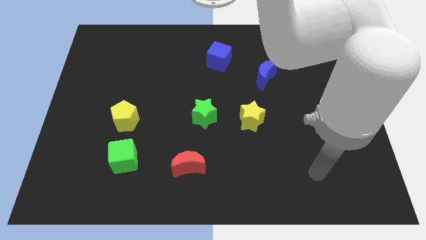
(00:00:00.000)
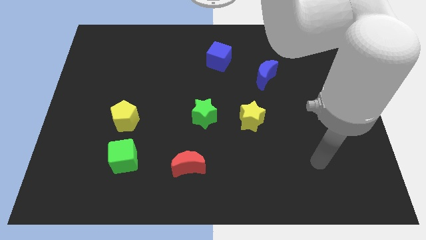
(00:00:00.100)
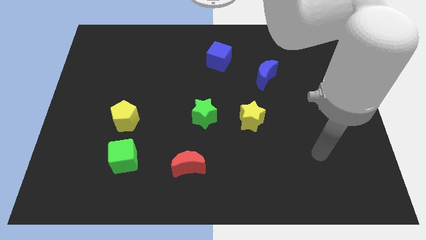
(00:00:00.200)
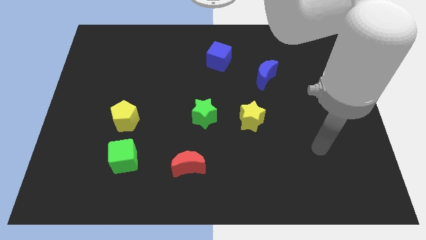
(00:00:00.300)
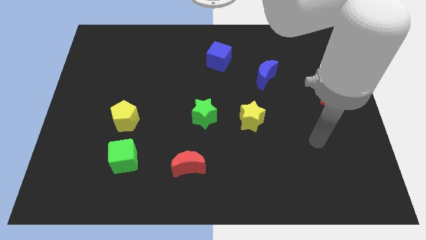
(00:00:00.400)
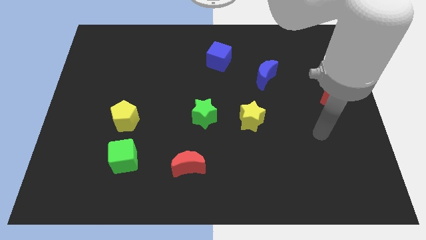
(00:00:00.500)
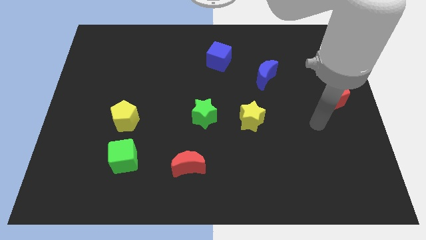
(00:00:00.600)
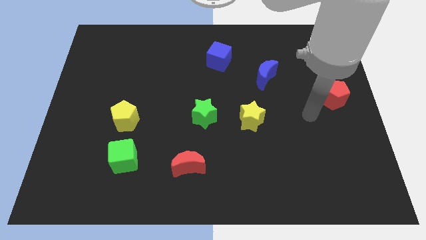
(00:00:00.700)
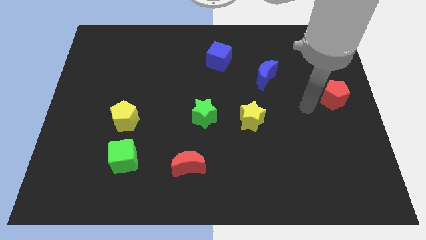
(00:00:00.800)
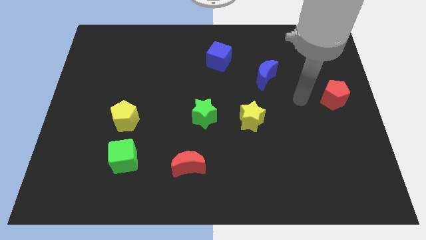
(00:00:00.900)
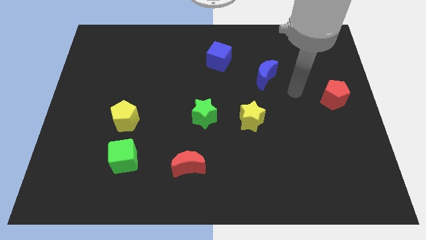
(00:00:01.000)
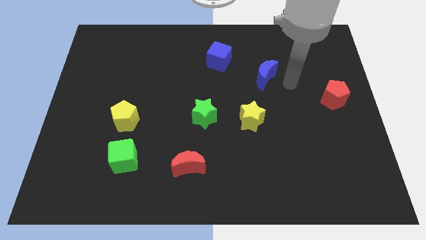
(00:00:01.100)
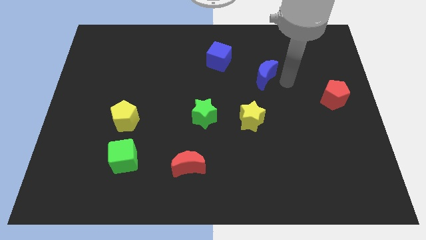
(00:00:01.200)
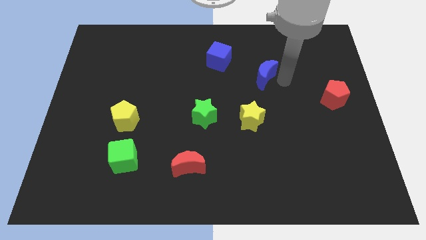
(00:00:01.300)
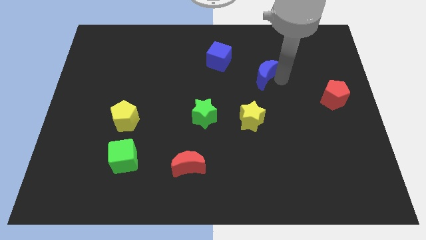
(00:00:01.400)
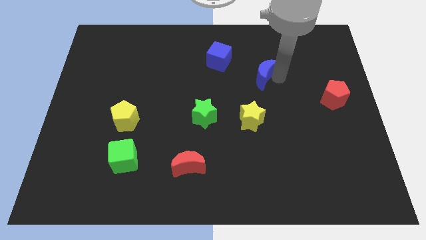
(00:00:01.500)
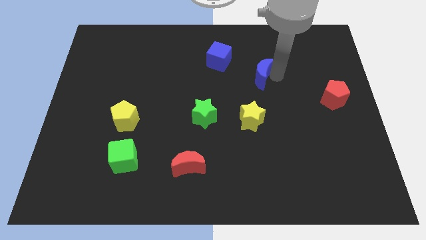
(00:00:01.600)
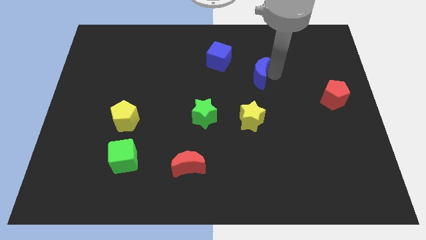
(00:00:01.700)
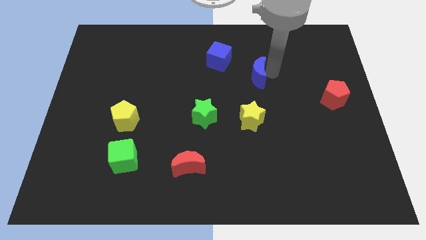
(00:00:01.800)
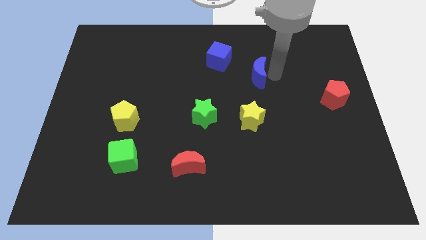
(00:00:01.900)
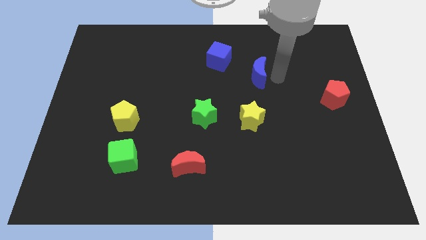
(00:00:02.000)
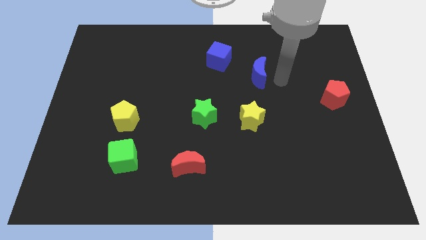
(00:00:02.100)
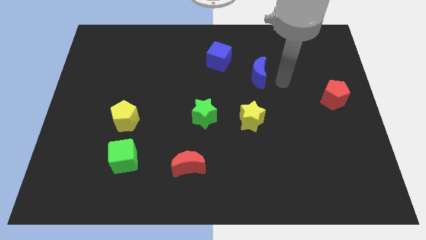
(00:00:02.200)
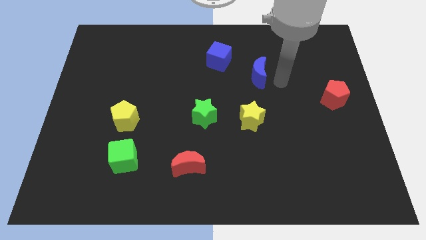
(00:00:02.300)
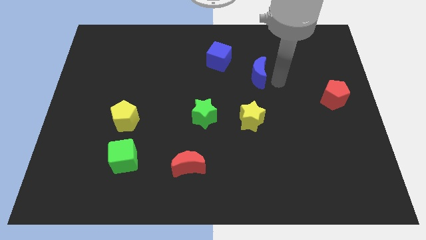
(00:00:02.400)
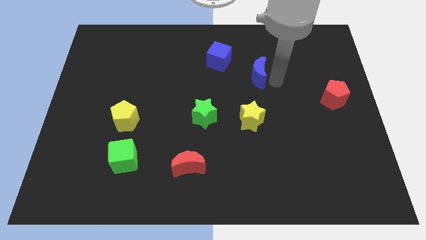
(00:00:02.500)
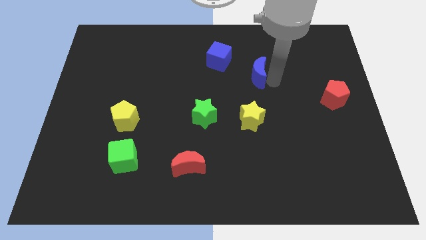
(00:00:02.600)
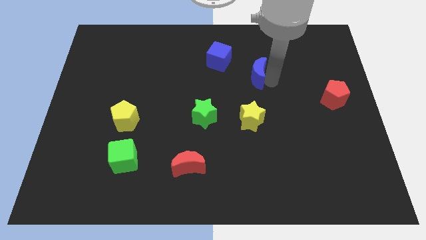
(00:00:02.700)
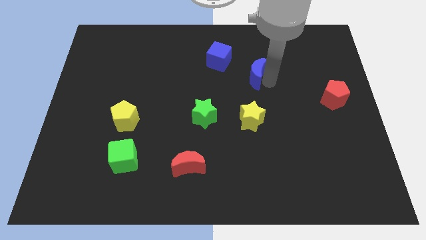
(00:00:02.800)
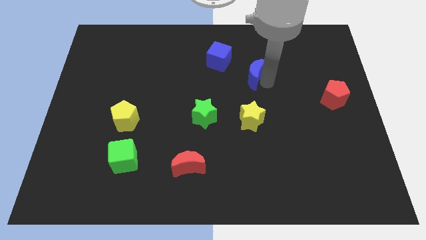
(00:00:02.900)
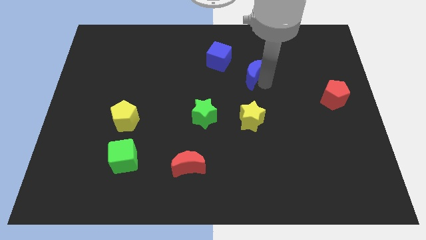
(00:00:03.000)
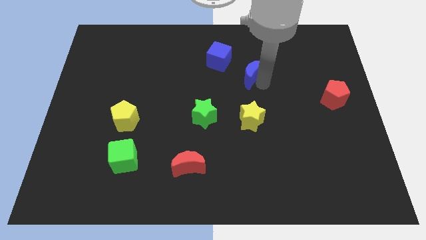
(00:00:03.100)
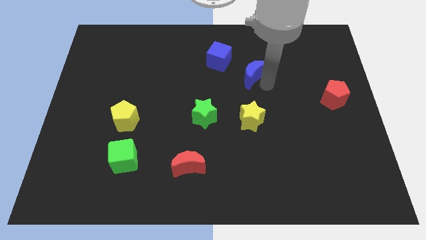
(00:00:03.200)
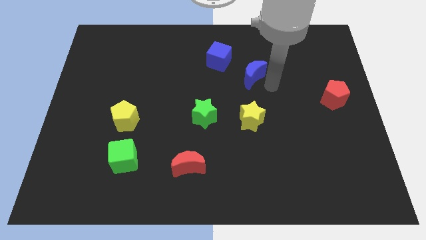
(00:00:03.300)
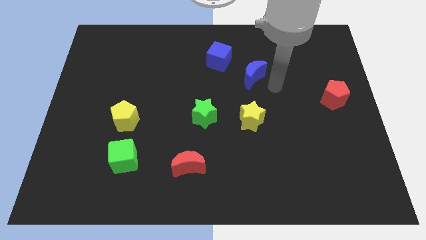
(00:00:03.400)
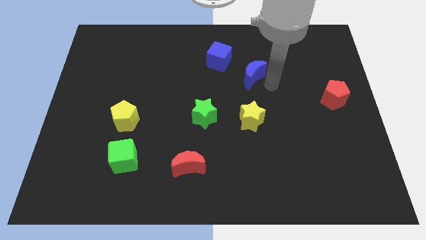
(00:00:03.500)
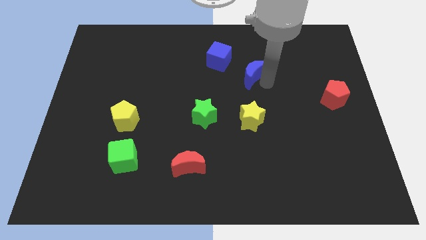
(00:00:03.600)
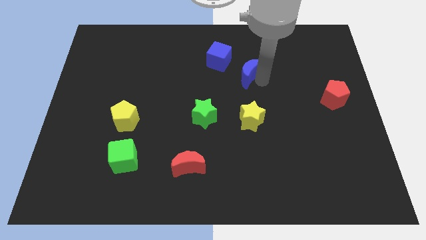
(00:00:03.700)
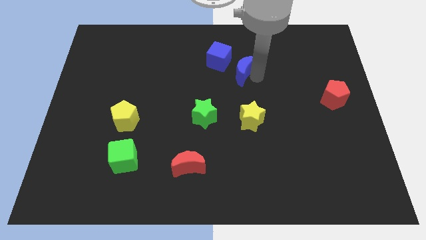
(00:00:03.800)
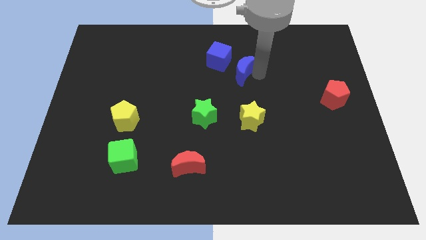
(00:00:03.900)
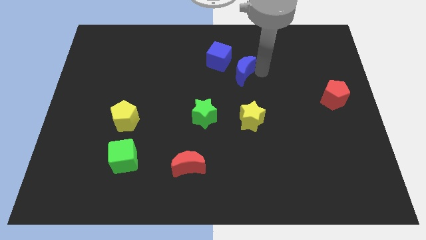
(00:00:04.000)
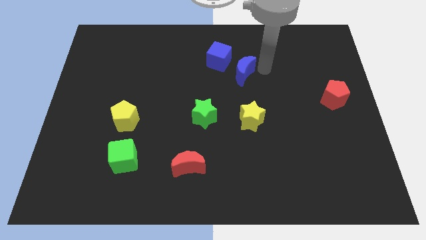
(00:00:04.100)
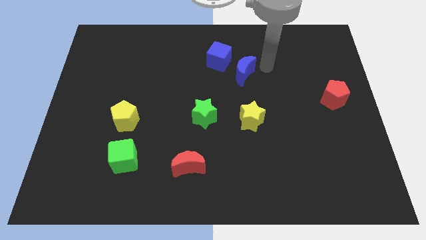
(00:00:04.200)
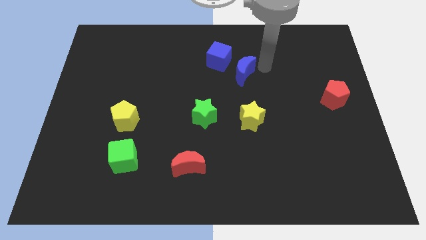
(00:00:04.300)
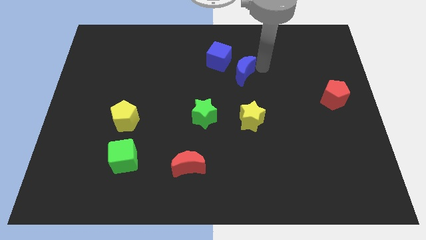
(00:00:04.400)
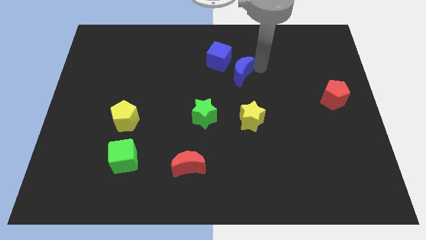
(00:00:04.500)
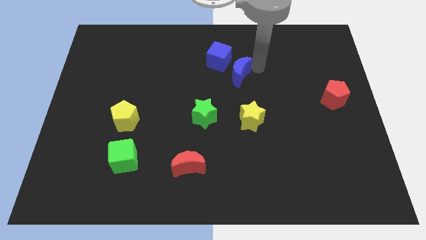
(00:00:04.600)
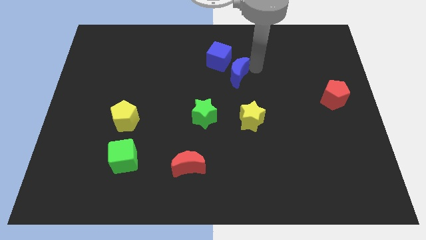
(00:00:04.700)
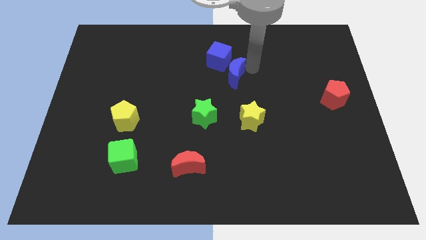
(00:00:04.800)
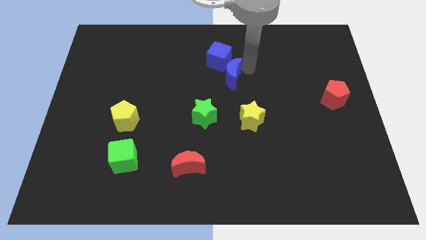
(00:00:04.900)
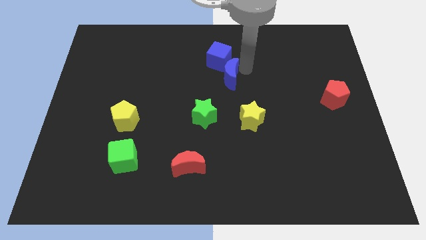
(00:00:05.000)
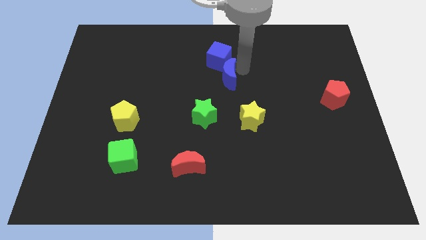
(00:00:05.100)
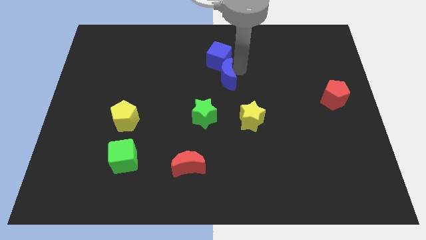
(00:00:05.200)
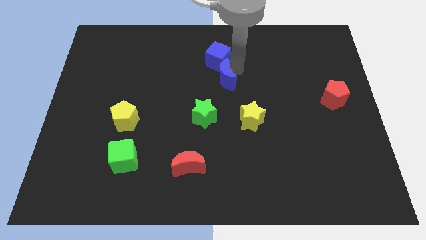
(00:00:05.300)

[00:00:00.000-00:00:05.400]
push the blue moon above the green star

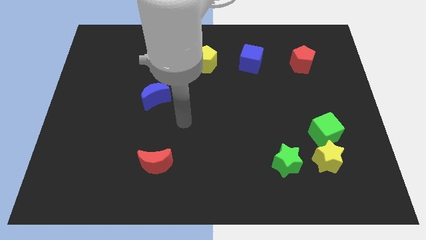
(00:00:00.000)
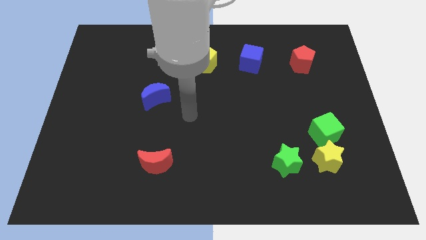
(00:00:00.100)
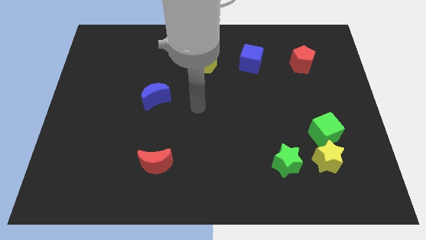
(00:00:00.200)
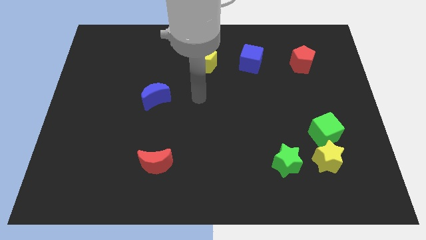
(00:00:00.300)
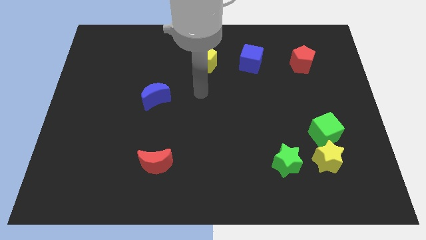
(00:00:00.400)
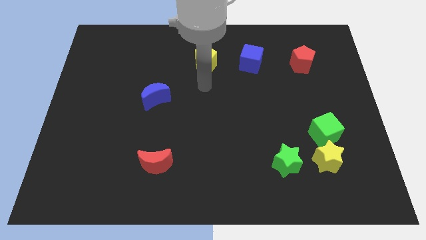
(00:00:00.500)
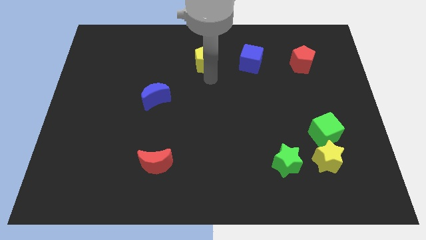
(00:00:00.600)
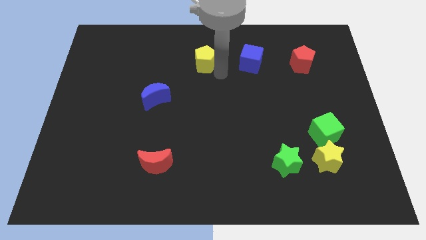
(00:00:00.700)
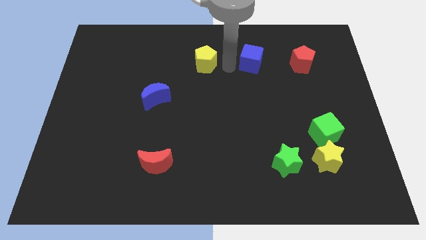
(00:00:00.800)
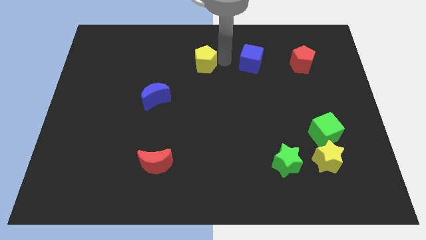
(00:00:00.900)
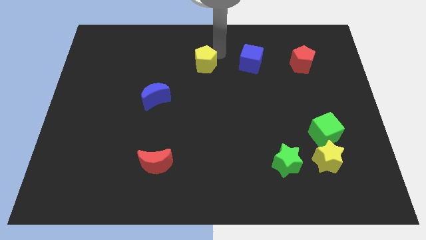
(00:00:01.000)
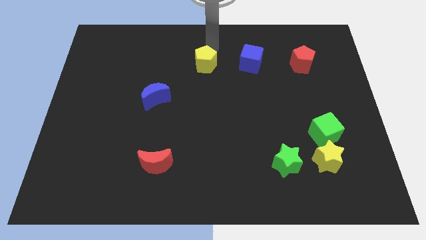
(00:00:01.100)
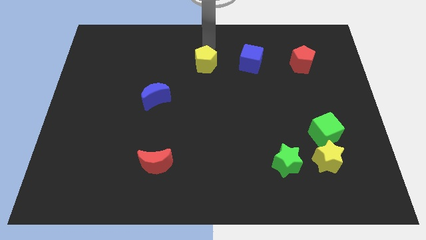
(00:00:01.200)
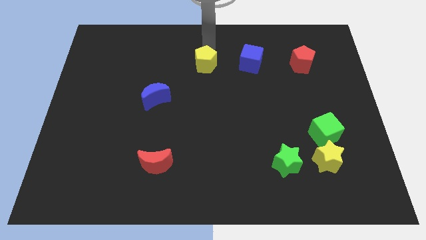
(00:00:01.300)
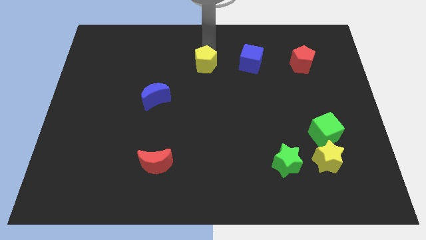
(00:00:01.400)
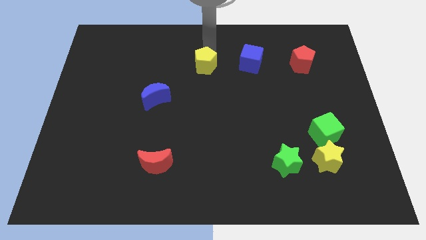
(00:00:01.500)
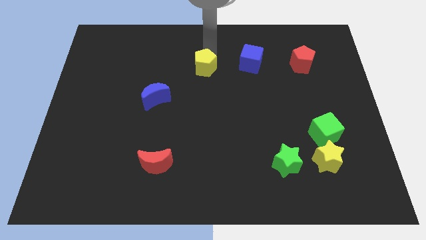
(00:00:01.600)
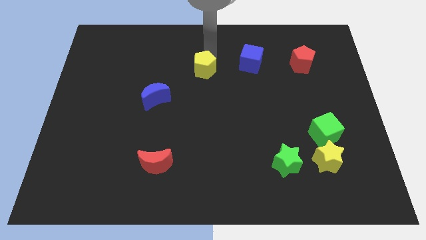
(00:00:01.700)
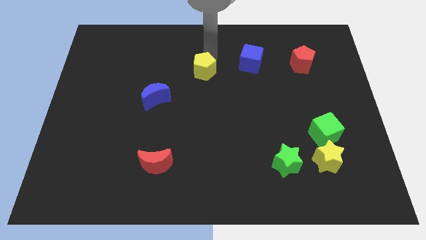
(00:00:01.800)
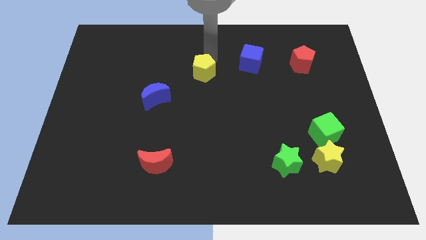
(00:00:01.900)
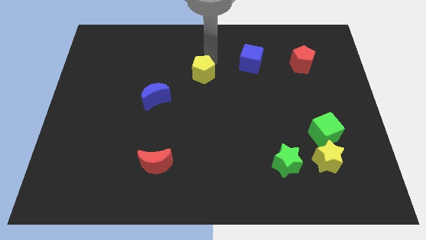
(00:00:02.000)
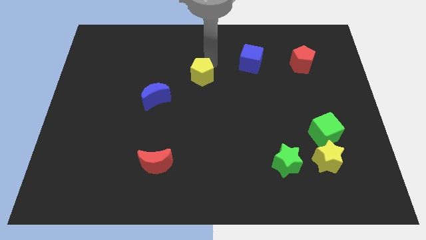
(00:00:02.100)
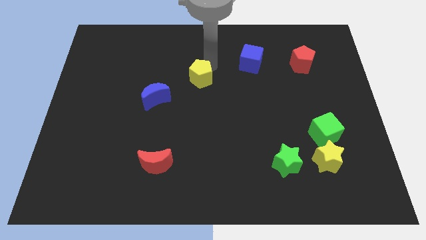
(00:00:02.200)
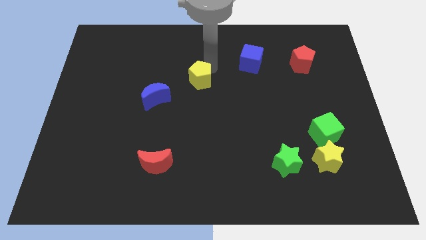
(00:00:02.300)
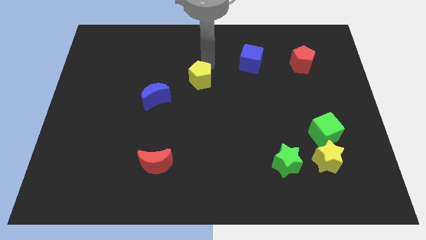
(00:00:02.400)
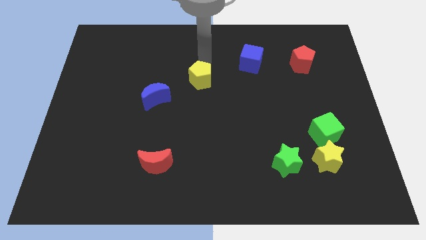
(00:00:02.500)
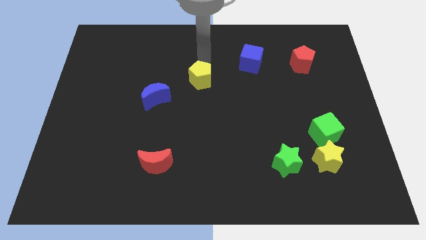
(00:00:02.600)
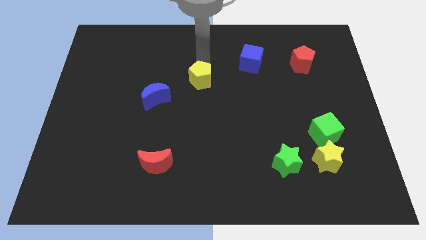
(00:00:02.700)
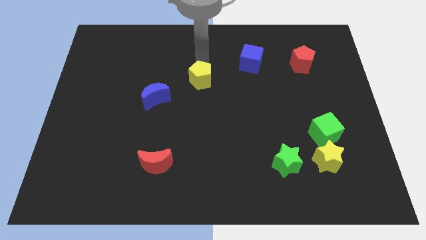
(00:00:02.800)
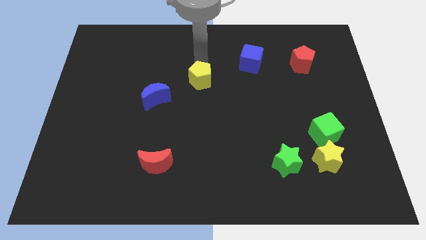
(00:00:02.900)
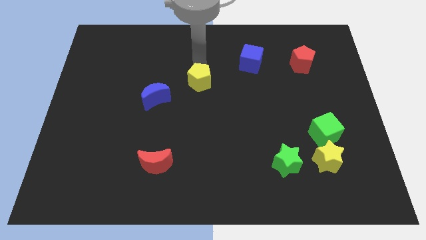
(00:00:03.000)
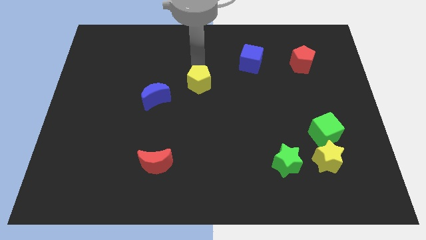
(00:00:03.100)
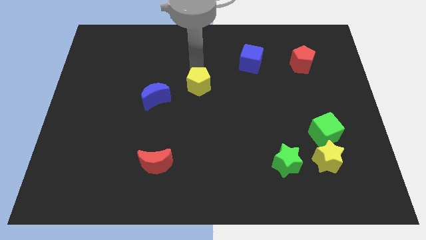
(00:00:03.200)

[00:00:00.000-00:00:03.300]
slide the yellow pentagon just right of the blue moon
